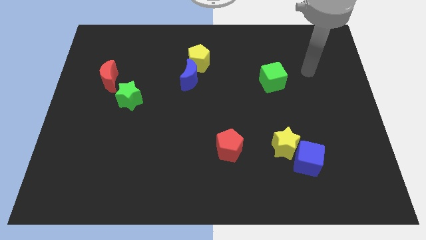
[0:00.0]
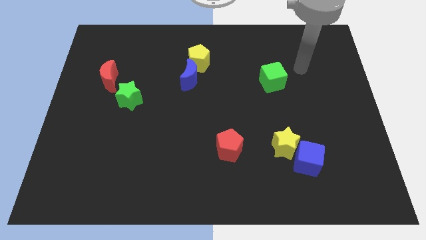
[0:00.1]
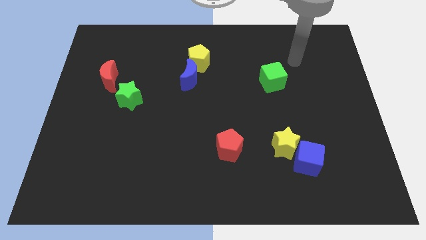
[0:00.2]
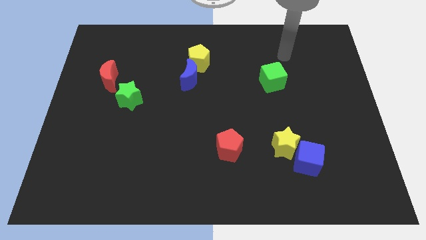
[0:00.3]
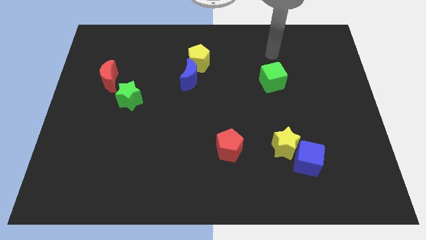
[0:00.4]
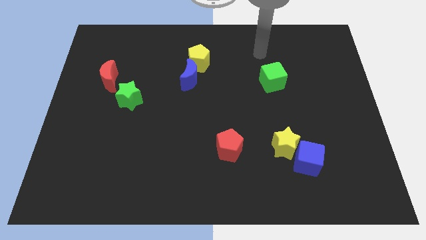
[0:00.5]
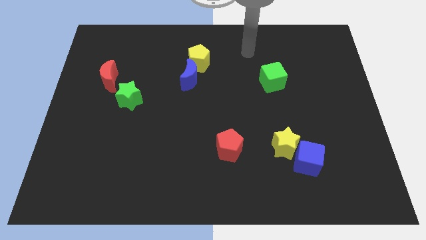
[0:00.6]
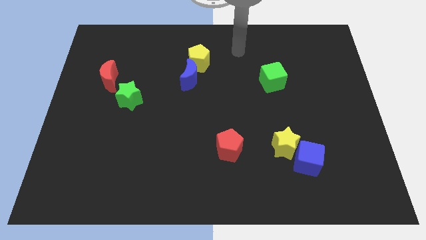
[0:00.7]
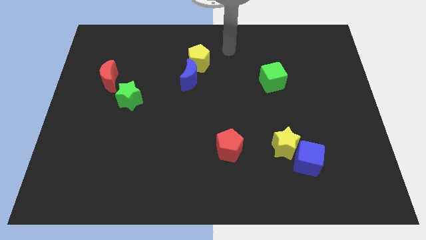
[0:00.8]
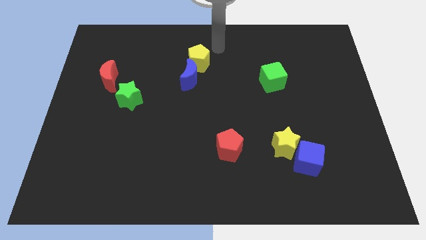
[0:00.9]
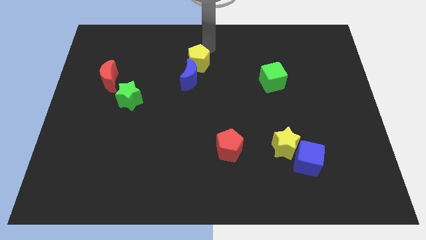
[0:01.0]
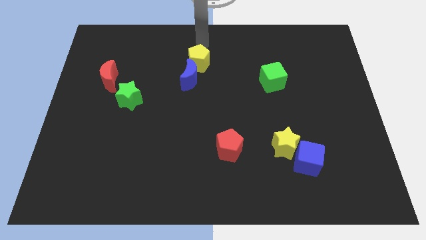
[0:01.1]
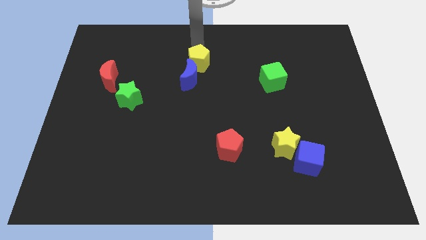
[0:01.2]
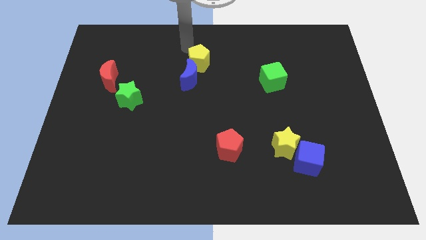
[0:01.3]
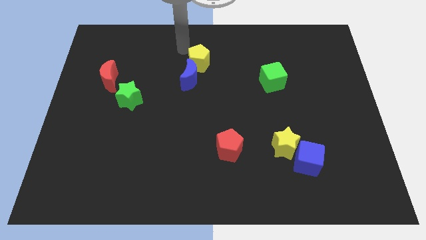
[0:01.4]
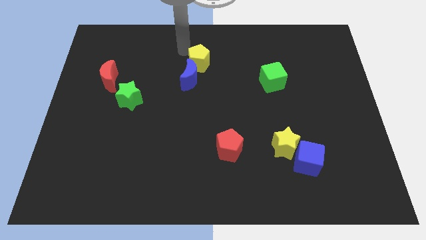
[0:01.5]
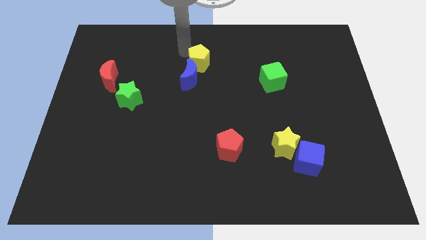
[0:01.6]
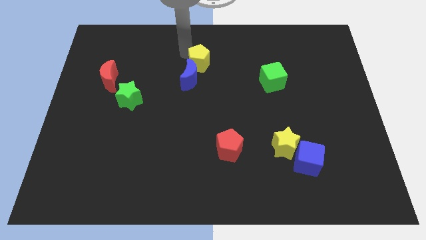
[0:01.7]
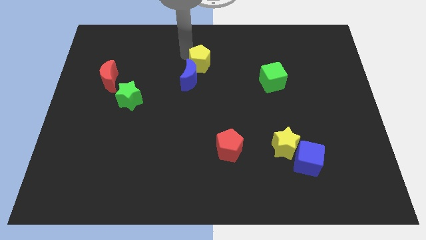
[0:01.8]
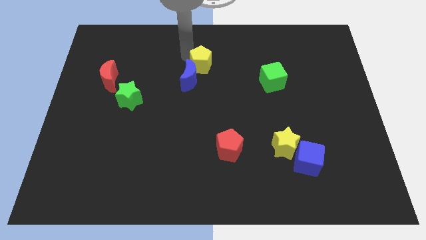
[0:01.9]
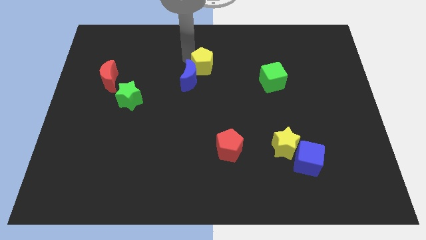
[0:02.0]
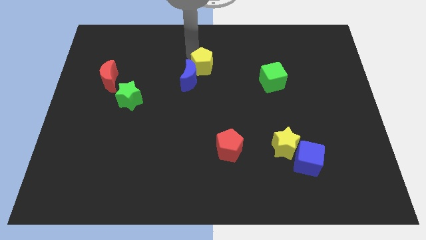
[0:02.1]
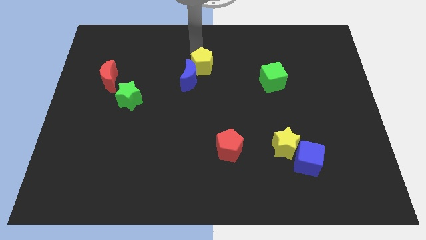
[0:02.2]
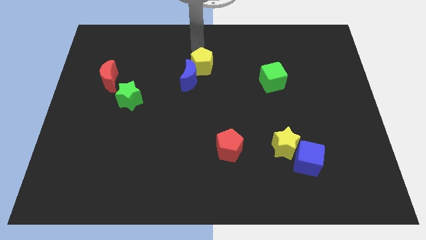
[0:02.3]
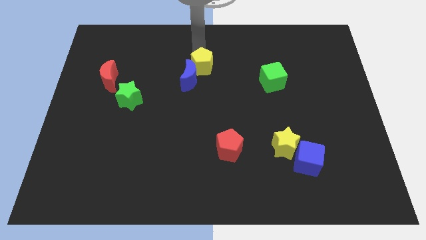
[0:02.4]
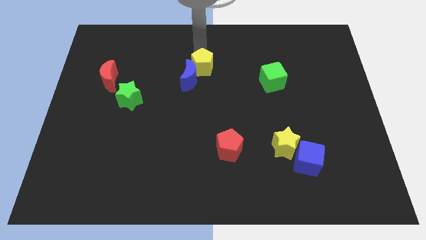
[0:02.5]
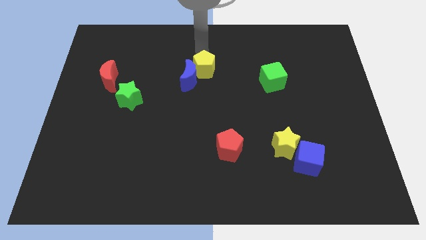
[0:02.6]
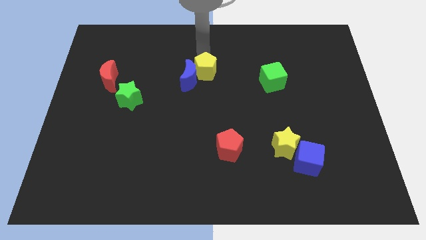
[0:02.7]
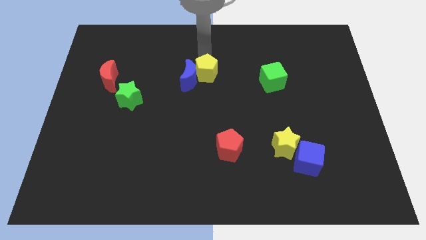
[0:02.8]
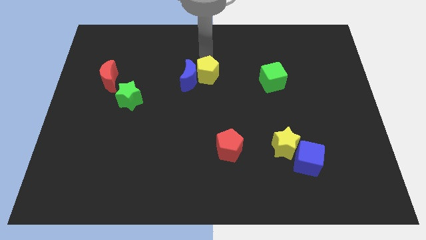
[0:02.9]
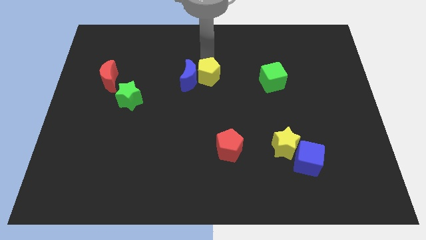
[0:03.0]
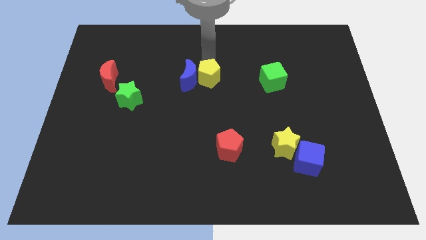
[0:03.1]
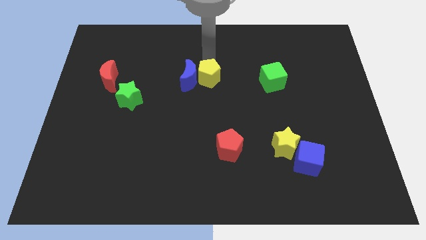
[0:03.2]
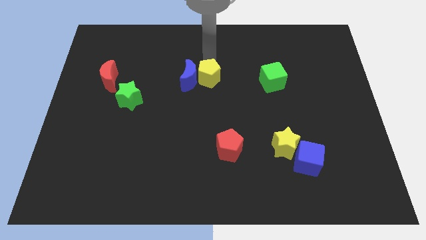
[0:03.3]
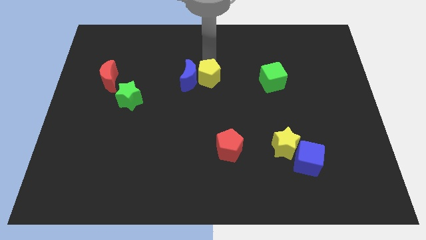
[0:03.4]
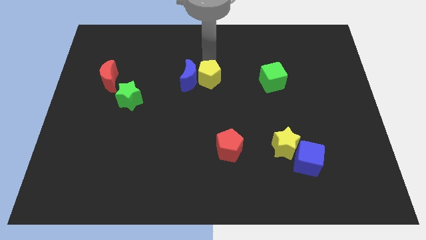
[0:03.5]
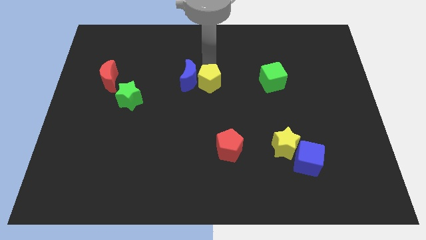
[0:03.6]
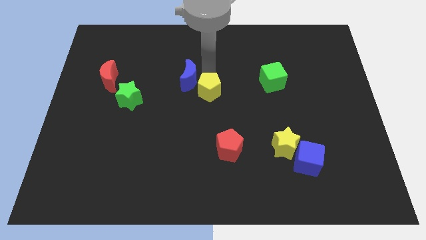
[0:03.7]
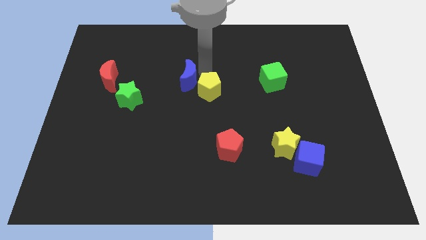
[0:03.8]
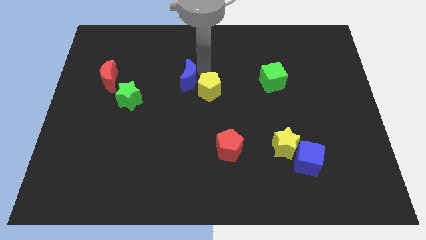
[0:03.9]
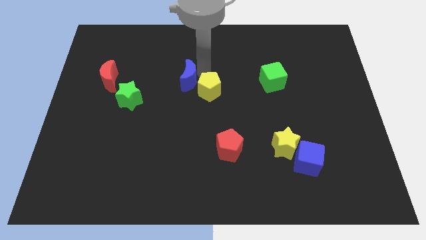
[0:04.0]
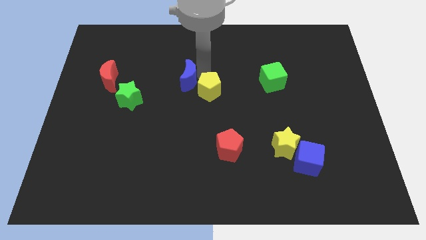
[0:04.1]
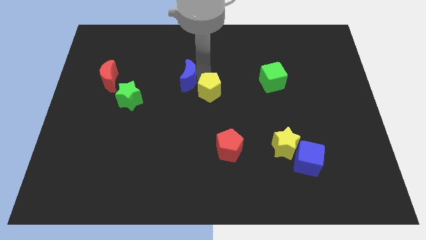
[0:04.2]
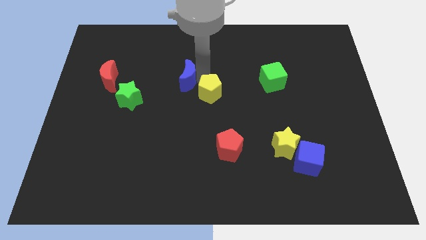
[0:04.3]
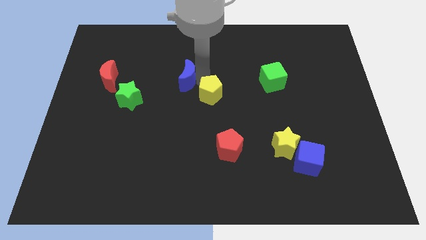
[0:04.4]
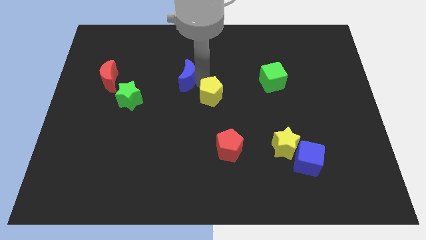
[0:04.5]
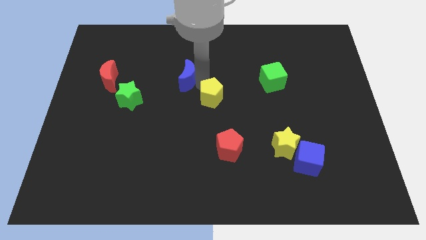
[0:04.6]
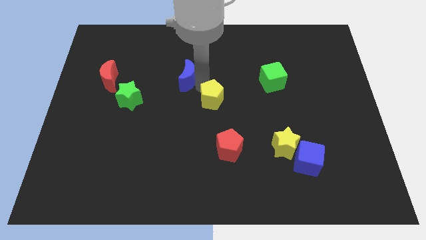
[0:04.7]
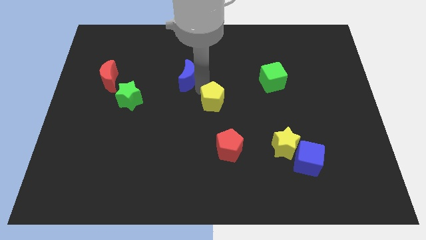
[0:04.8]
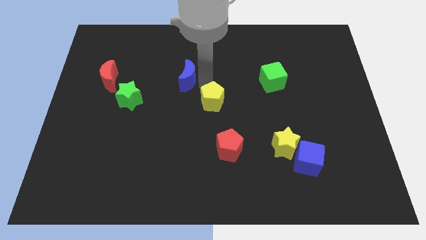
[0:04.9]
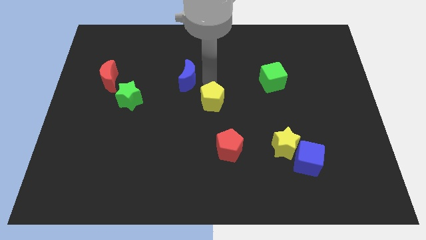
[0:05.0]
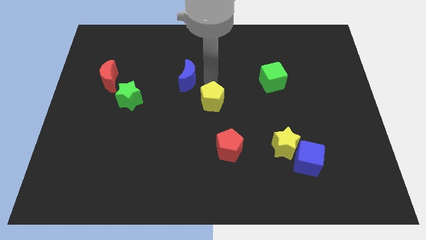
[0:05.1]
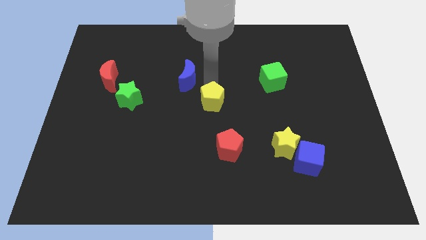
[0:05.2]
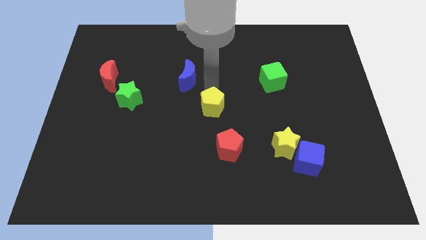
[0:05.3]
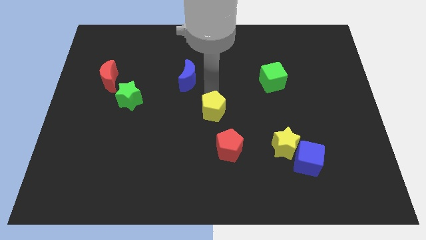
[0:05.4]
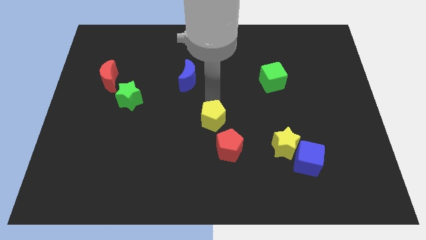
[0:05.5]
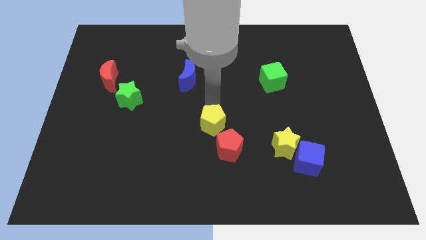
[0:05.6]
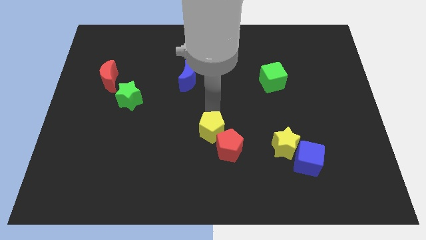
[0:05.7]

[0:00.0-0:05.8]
push the yellow pentagon downwards

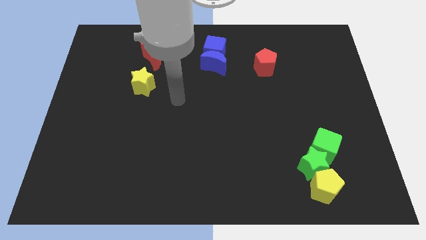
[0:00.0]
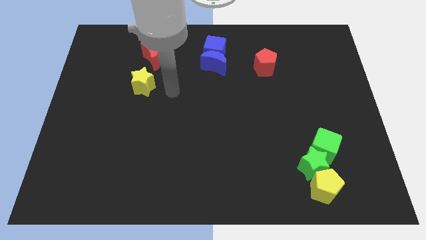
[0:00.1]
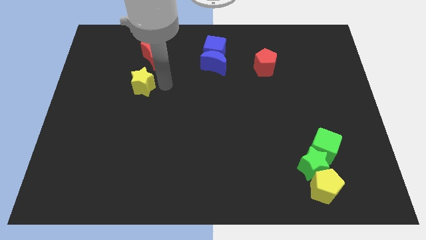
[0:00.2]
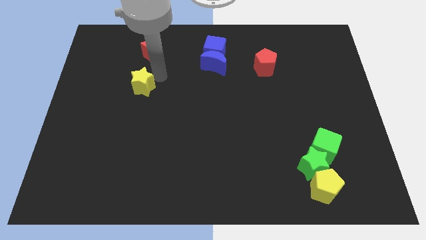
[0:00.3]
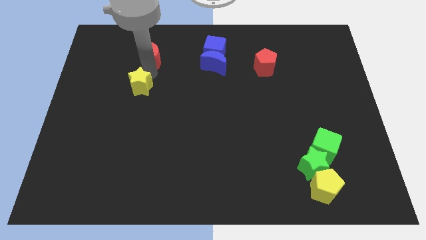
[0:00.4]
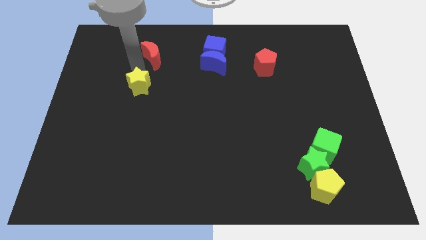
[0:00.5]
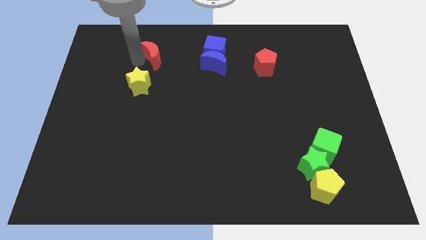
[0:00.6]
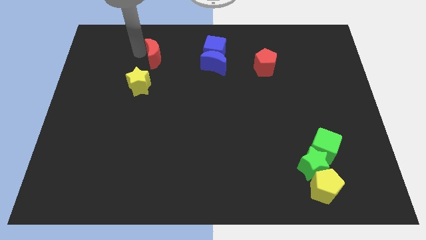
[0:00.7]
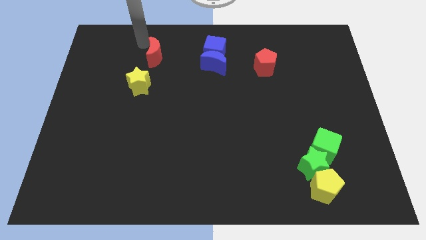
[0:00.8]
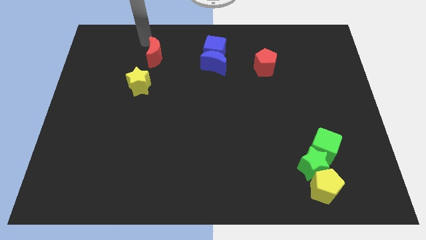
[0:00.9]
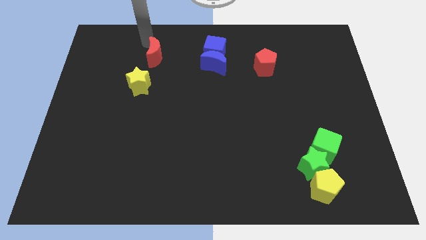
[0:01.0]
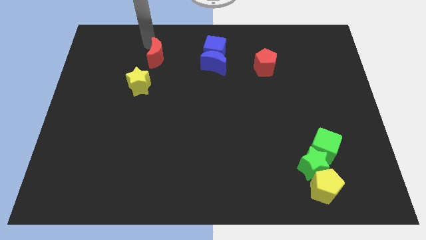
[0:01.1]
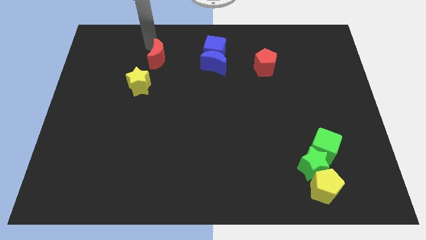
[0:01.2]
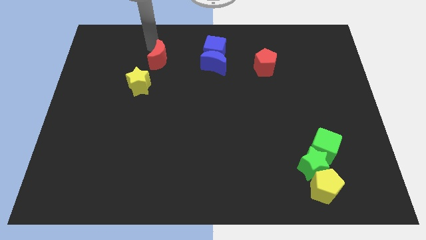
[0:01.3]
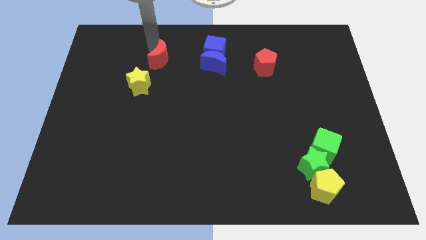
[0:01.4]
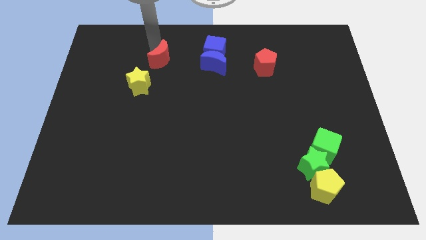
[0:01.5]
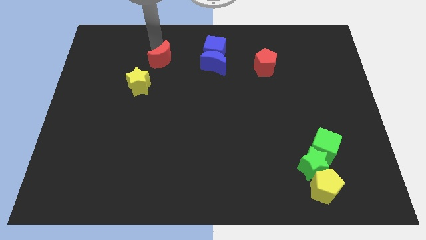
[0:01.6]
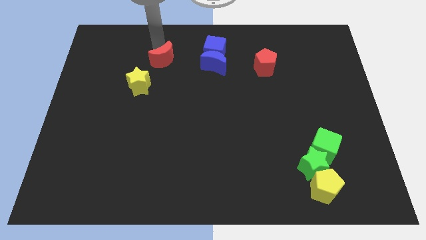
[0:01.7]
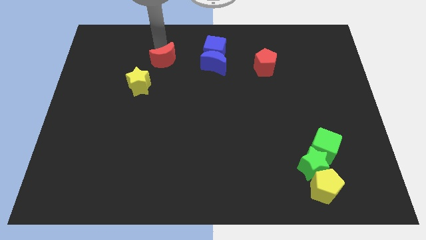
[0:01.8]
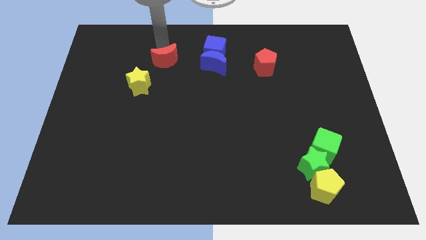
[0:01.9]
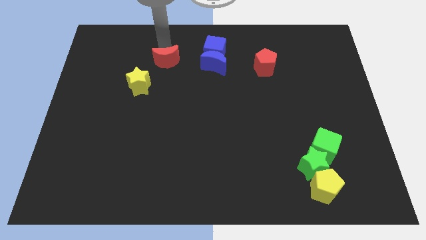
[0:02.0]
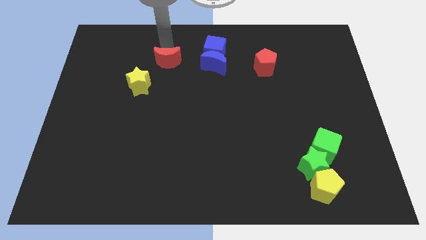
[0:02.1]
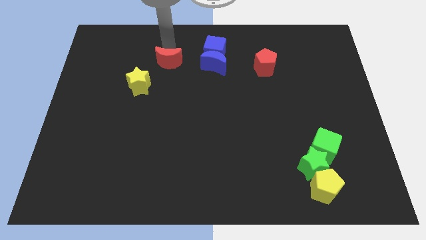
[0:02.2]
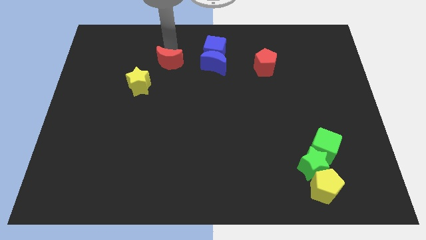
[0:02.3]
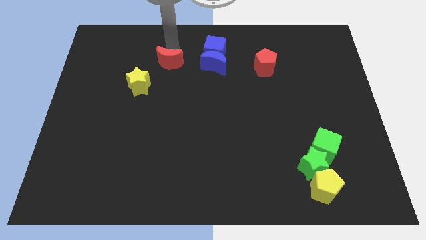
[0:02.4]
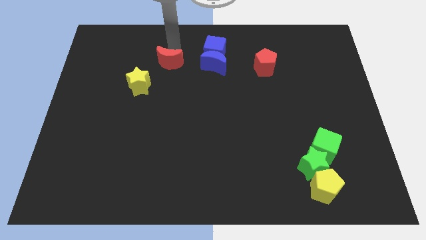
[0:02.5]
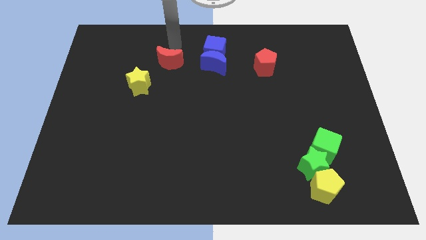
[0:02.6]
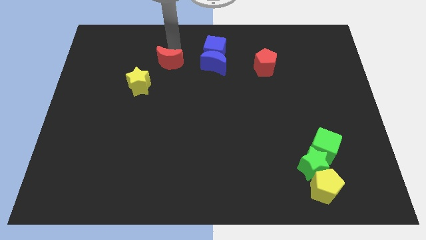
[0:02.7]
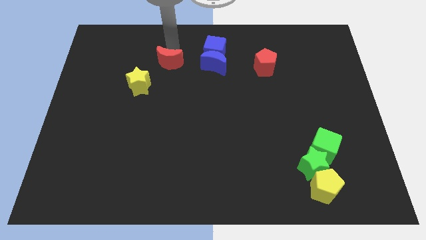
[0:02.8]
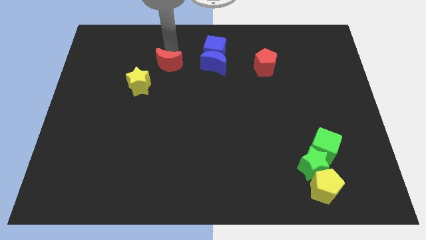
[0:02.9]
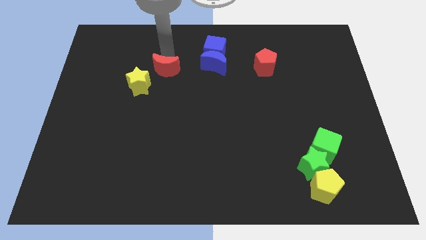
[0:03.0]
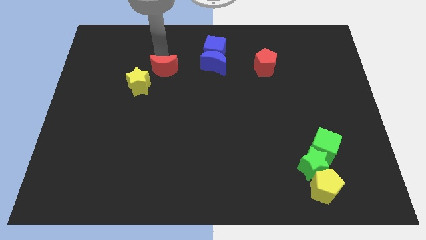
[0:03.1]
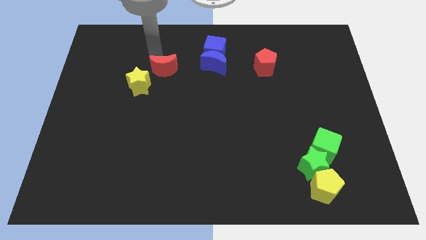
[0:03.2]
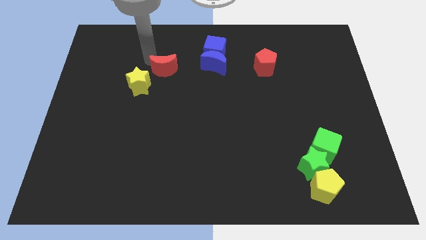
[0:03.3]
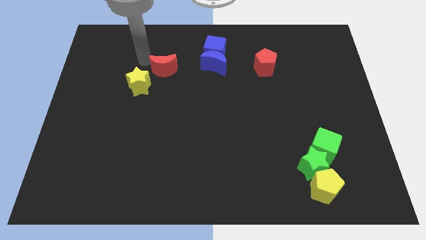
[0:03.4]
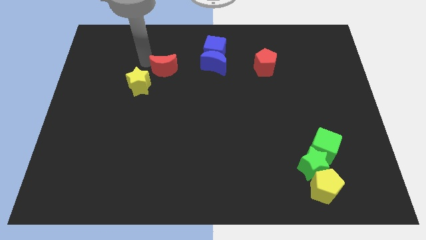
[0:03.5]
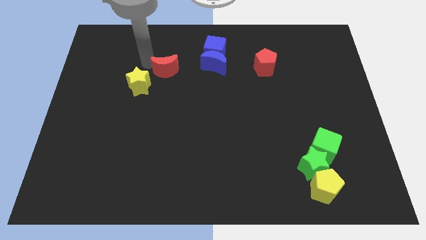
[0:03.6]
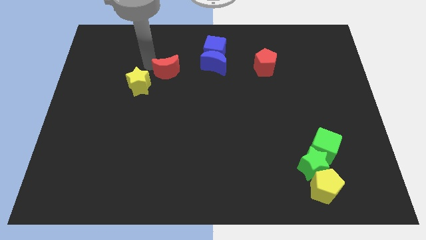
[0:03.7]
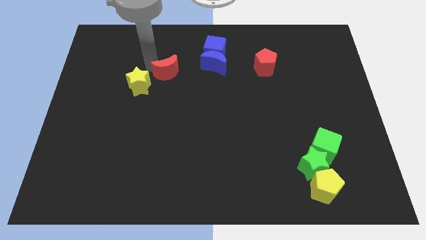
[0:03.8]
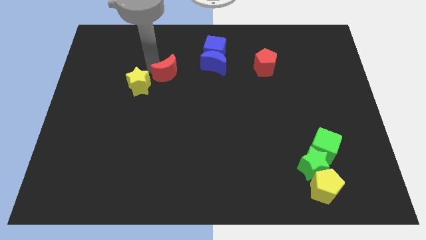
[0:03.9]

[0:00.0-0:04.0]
move the red moon a little down and then right
